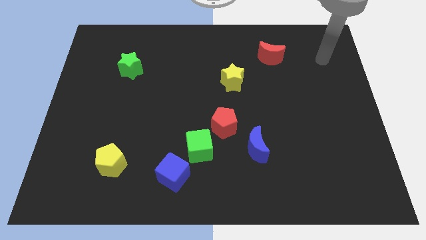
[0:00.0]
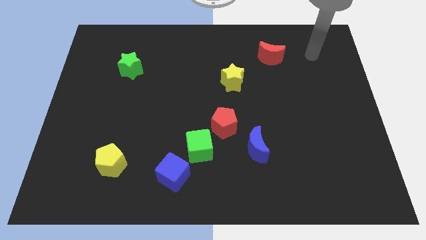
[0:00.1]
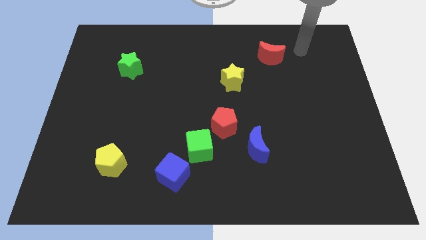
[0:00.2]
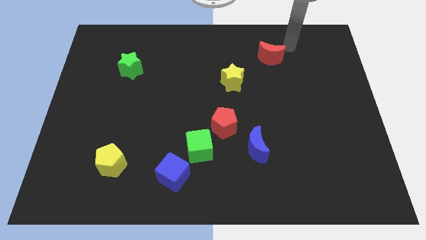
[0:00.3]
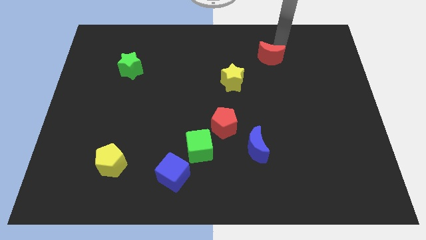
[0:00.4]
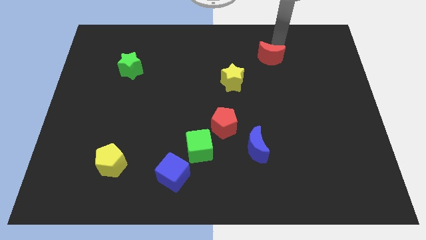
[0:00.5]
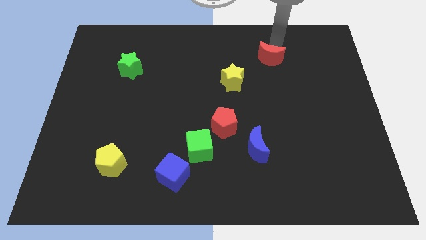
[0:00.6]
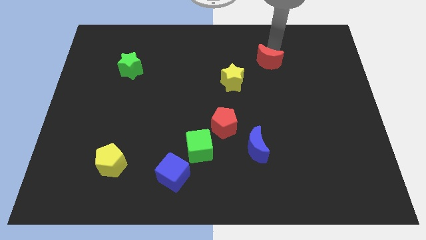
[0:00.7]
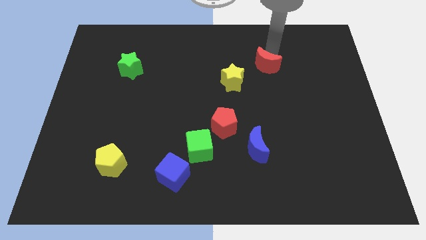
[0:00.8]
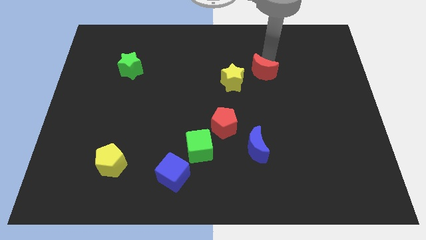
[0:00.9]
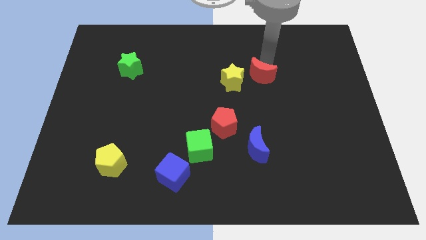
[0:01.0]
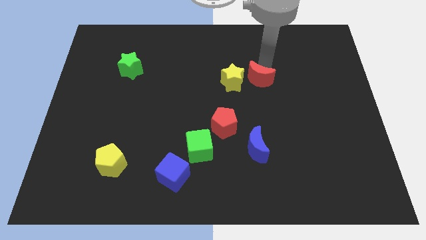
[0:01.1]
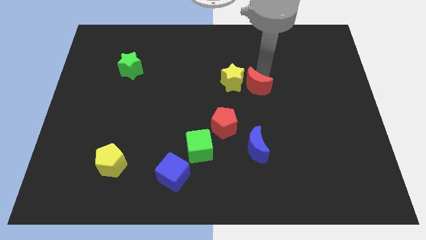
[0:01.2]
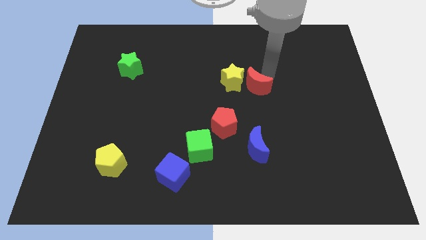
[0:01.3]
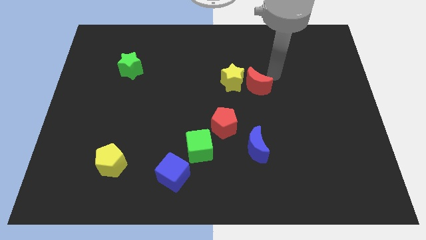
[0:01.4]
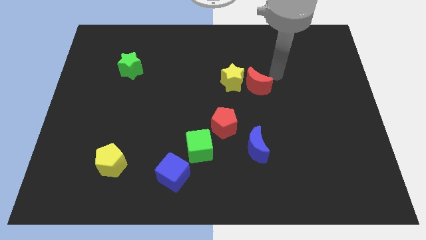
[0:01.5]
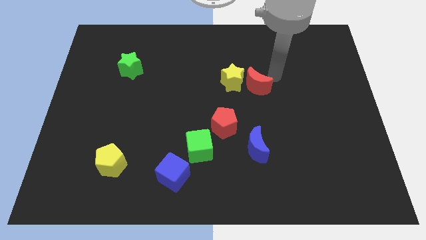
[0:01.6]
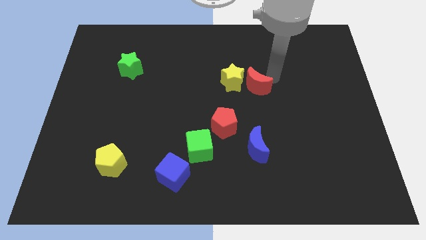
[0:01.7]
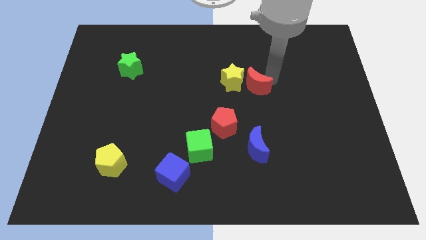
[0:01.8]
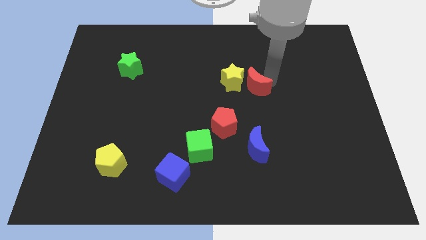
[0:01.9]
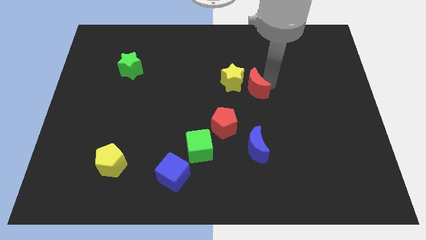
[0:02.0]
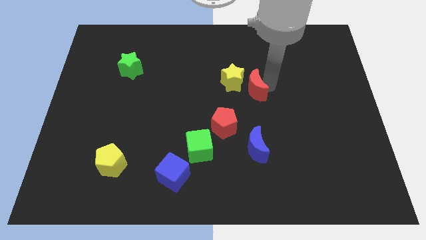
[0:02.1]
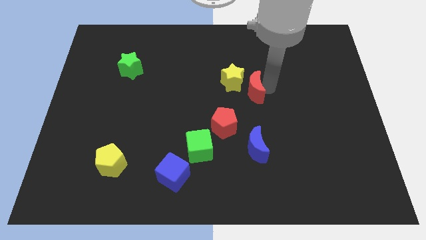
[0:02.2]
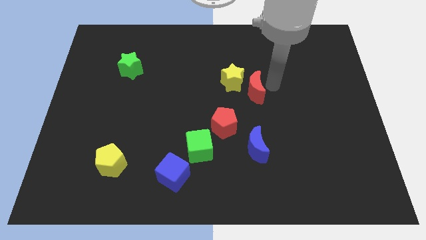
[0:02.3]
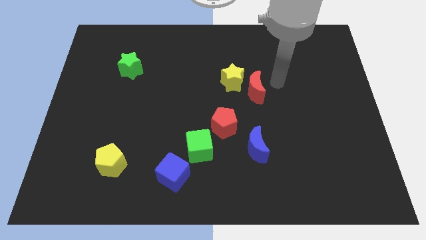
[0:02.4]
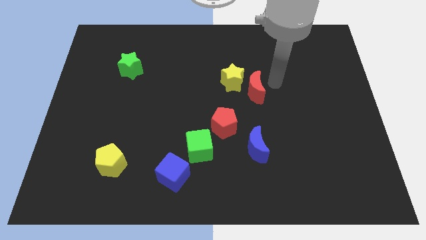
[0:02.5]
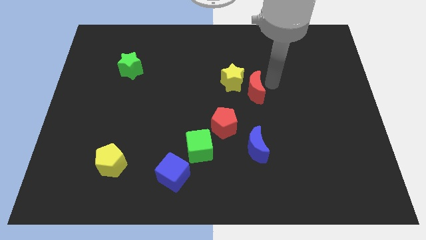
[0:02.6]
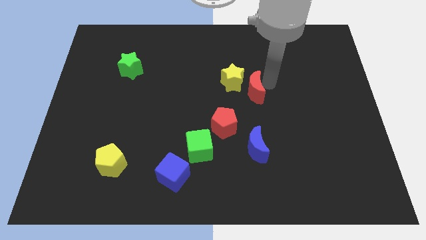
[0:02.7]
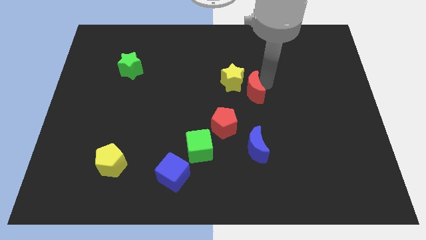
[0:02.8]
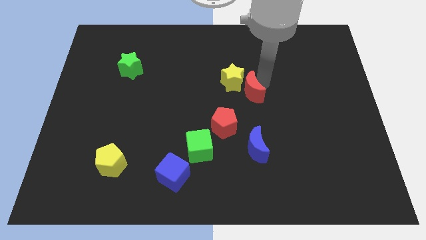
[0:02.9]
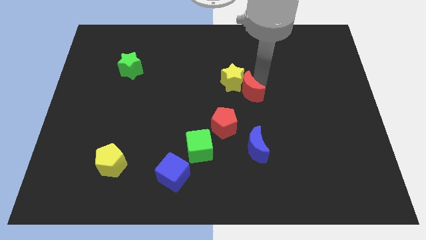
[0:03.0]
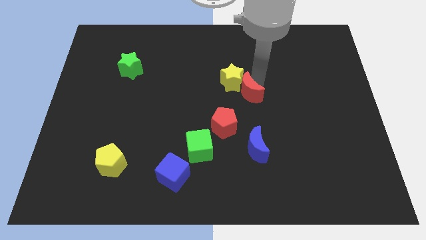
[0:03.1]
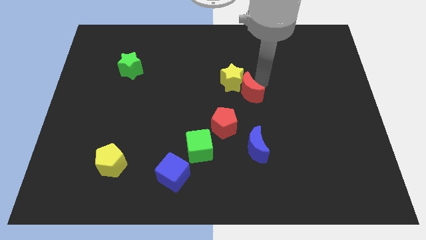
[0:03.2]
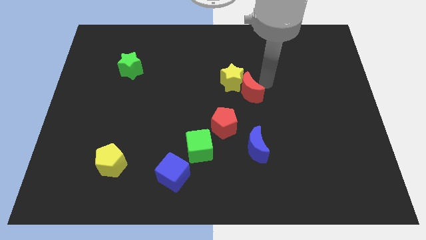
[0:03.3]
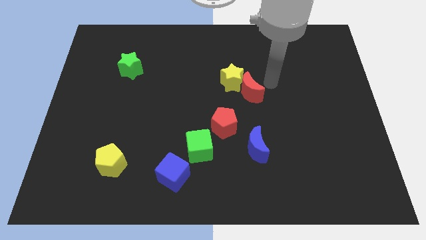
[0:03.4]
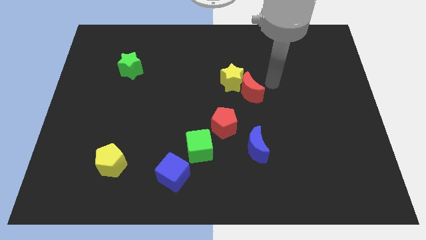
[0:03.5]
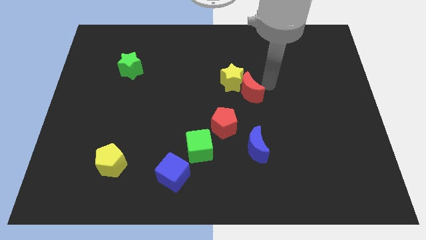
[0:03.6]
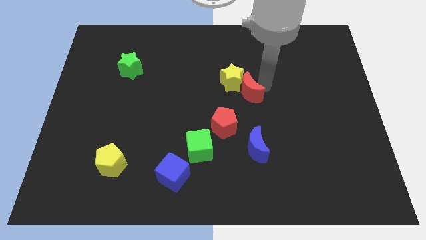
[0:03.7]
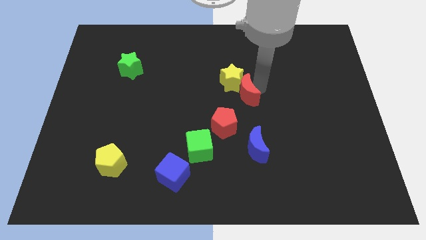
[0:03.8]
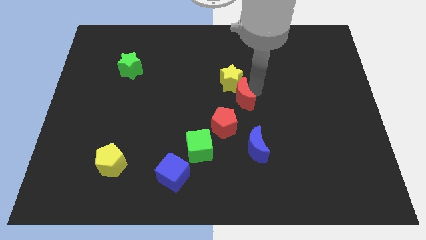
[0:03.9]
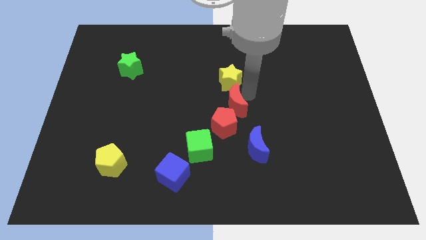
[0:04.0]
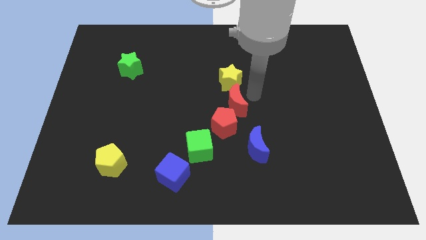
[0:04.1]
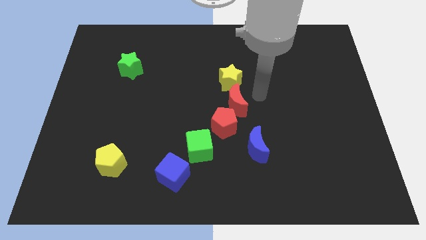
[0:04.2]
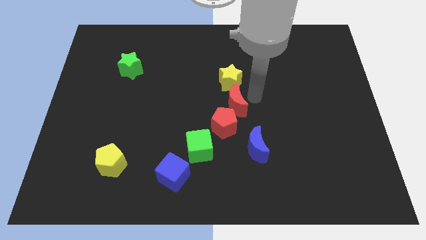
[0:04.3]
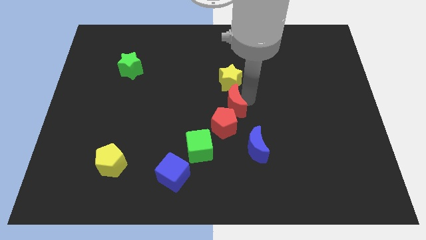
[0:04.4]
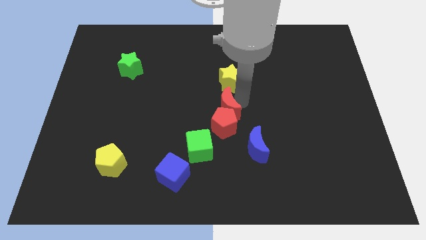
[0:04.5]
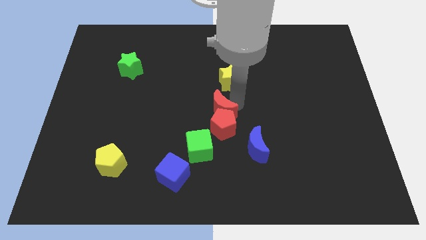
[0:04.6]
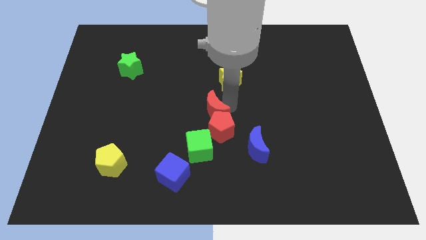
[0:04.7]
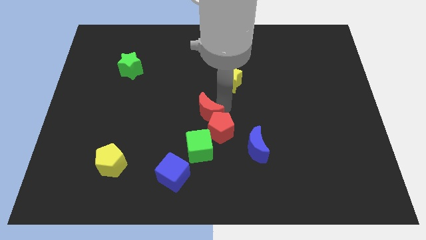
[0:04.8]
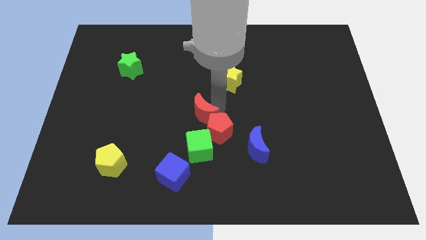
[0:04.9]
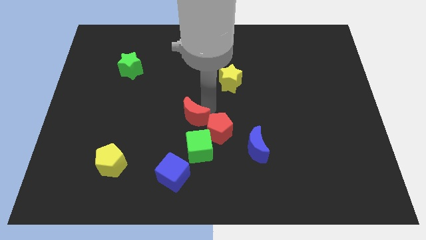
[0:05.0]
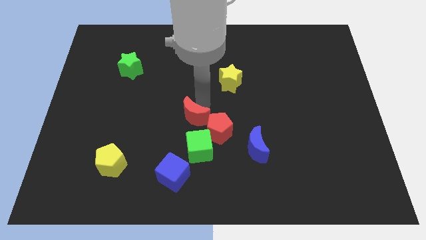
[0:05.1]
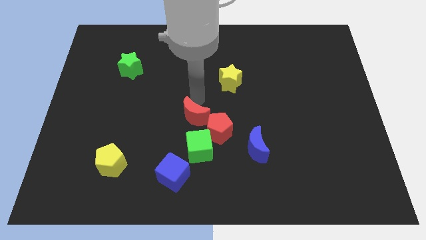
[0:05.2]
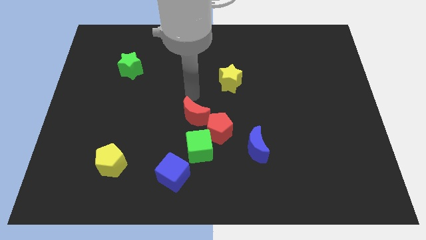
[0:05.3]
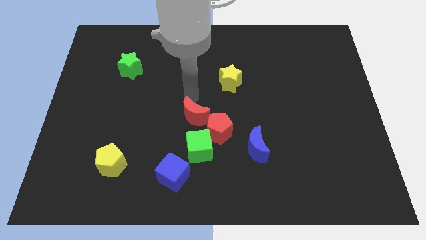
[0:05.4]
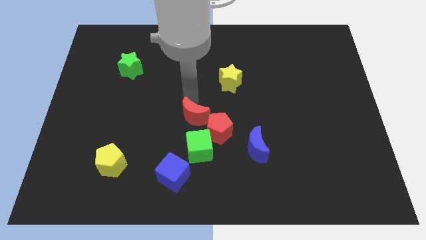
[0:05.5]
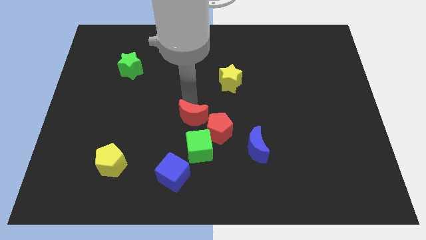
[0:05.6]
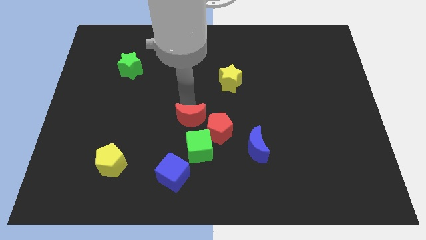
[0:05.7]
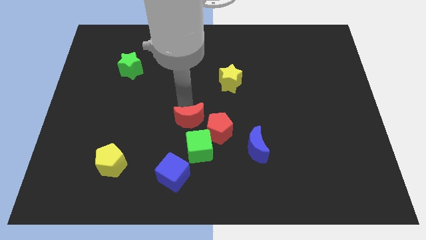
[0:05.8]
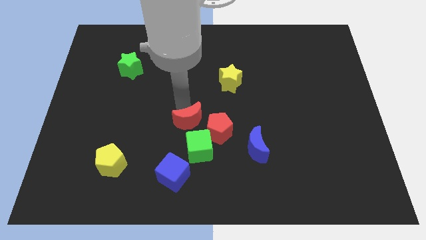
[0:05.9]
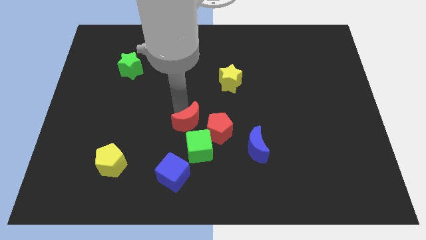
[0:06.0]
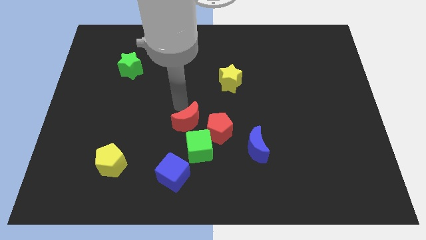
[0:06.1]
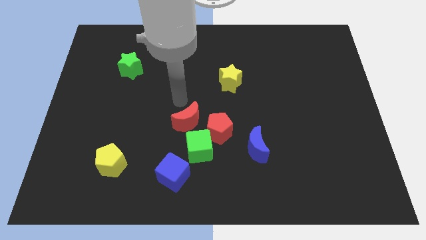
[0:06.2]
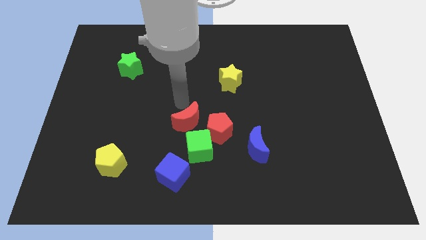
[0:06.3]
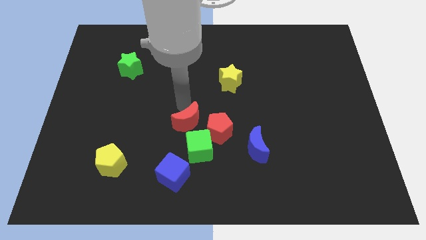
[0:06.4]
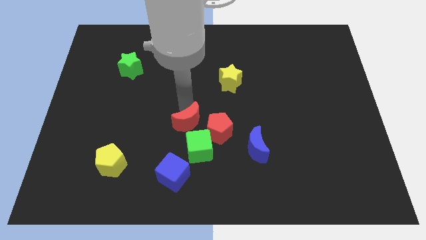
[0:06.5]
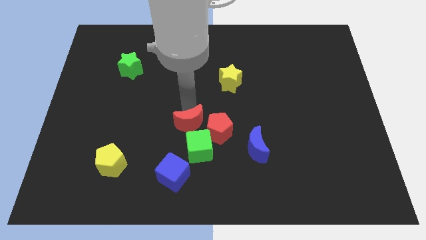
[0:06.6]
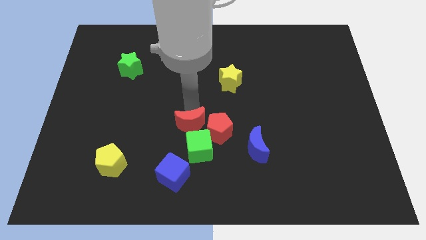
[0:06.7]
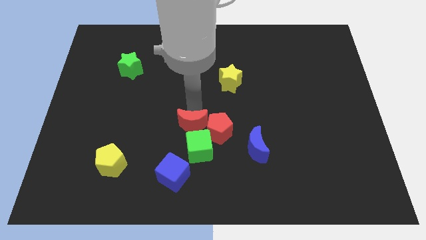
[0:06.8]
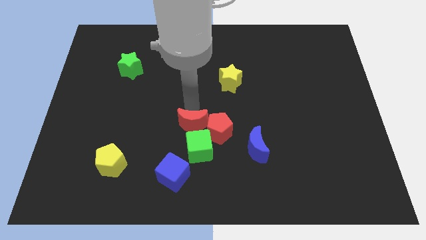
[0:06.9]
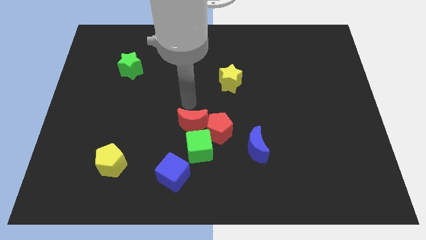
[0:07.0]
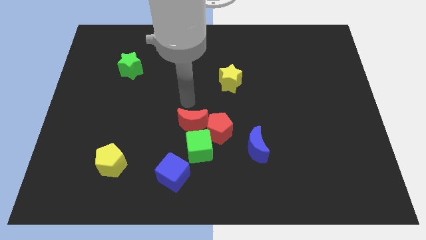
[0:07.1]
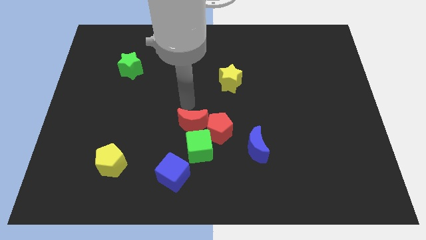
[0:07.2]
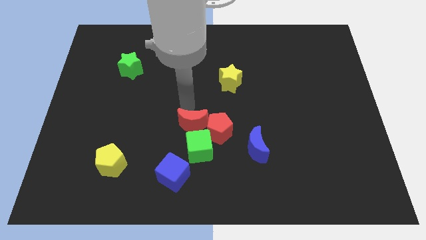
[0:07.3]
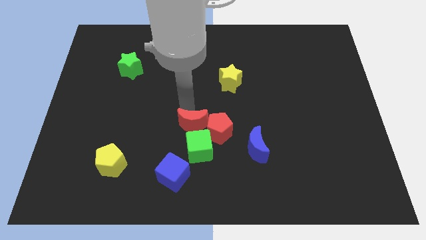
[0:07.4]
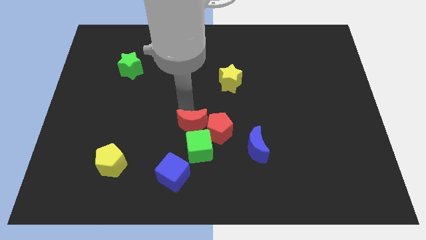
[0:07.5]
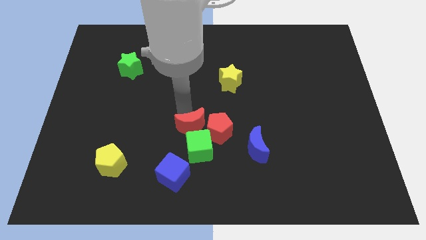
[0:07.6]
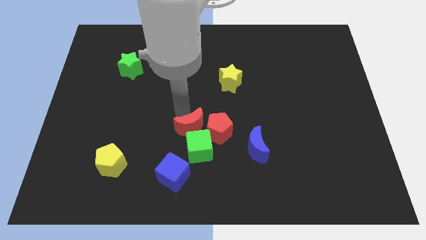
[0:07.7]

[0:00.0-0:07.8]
move the red moon to the green cube
